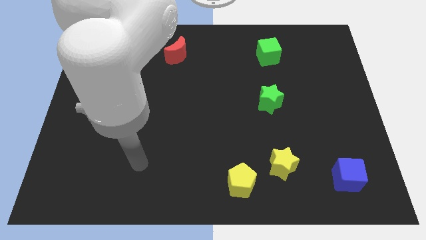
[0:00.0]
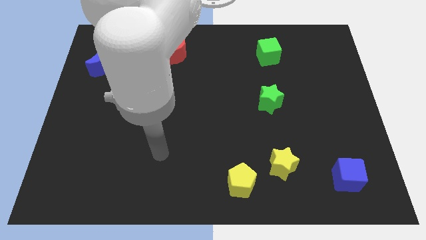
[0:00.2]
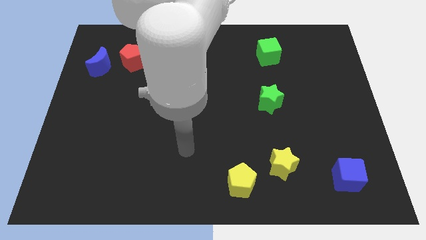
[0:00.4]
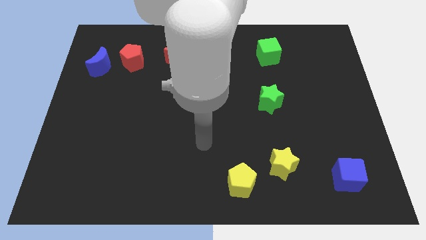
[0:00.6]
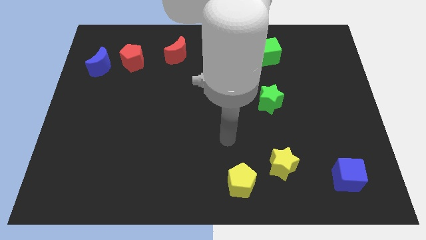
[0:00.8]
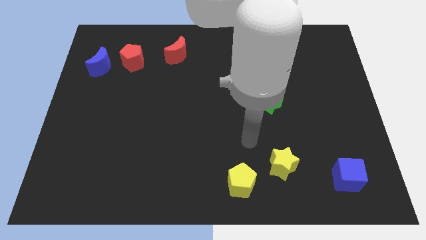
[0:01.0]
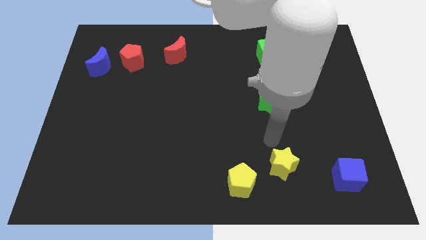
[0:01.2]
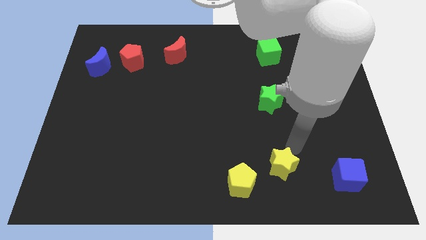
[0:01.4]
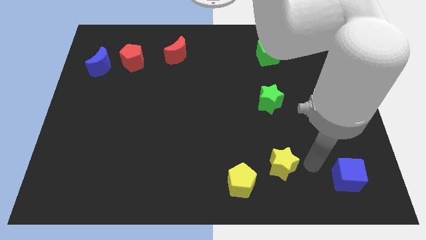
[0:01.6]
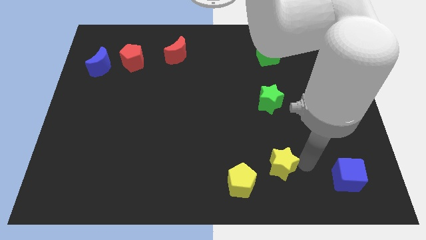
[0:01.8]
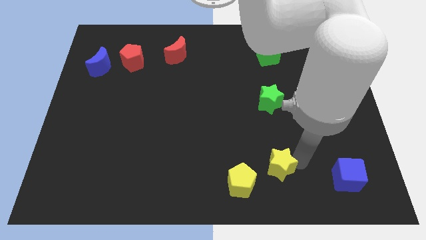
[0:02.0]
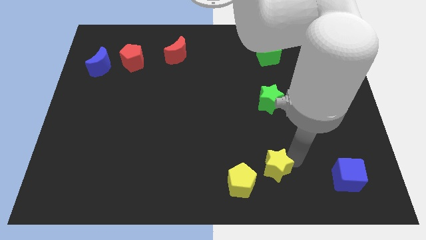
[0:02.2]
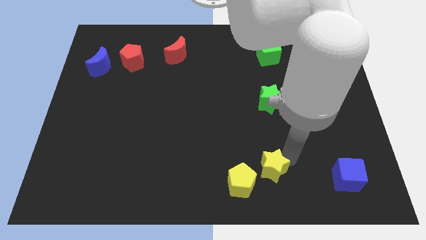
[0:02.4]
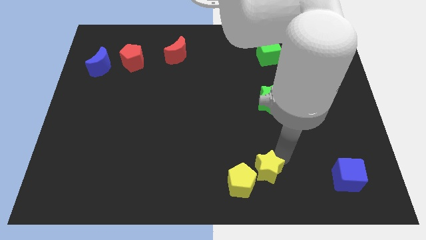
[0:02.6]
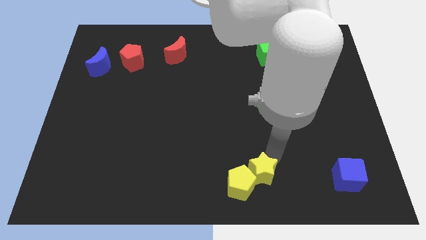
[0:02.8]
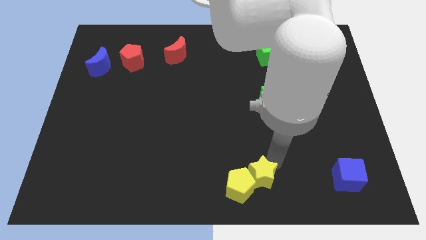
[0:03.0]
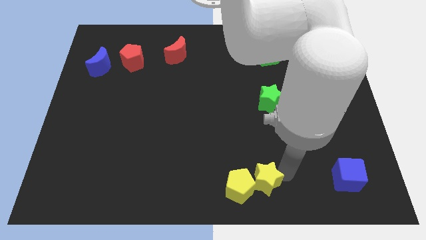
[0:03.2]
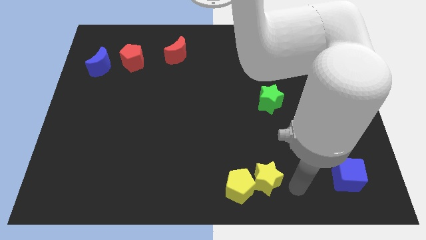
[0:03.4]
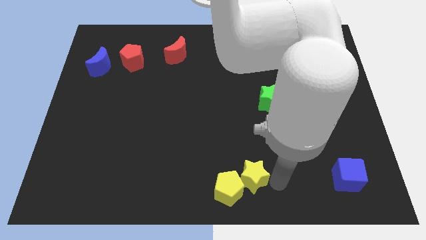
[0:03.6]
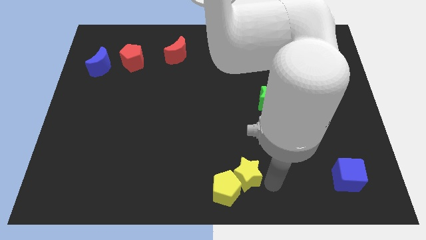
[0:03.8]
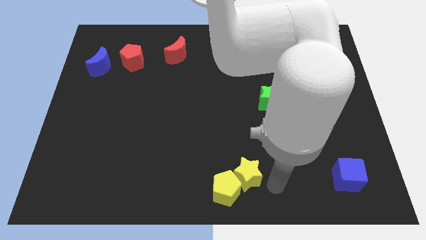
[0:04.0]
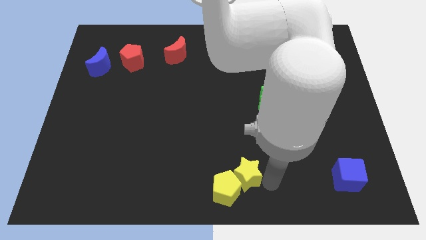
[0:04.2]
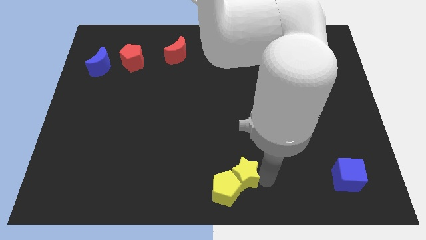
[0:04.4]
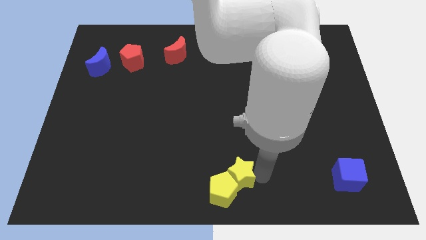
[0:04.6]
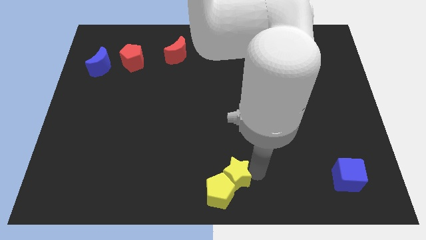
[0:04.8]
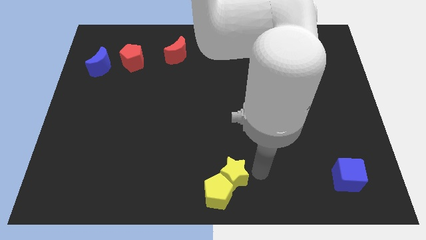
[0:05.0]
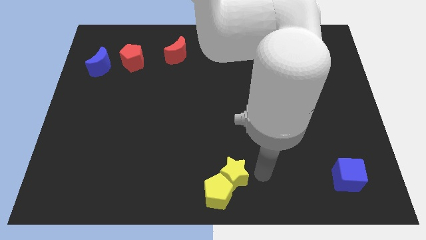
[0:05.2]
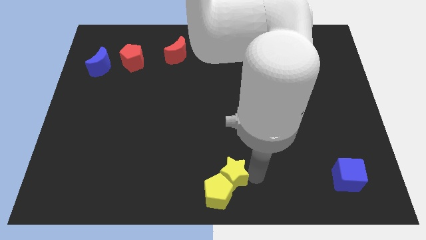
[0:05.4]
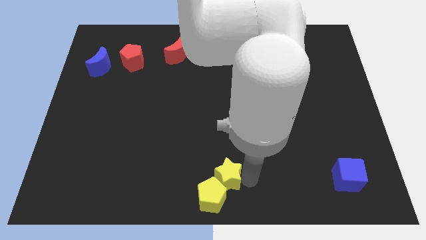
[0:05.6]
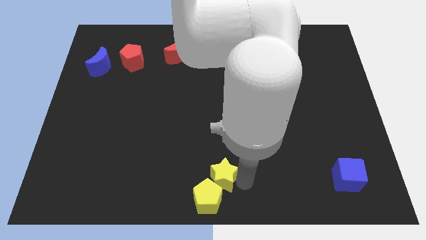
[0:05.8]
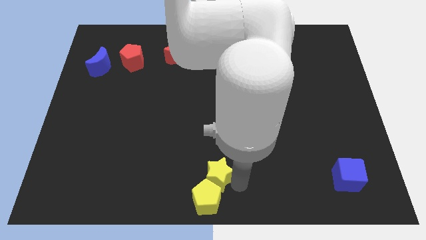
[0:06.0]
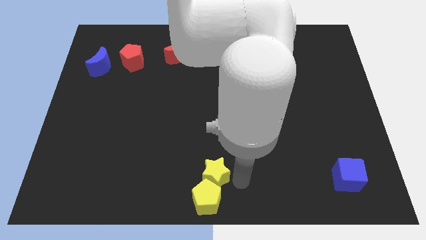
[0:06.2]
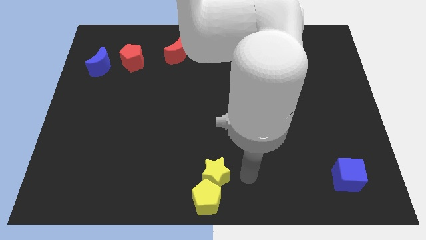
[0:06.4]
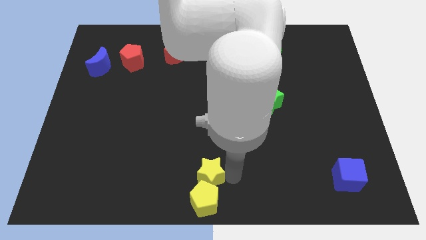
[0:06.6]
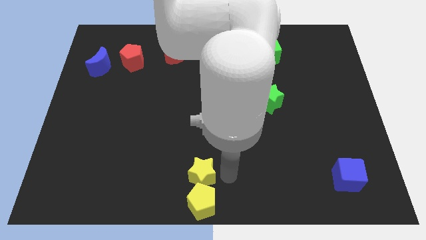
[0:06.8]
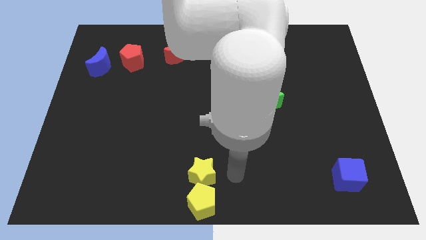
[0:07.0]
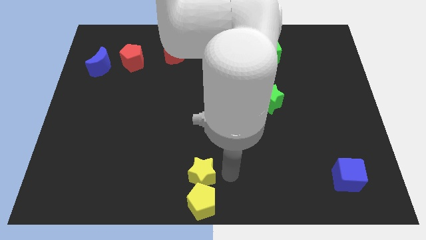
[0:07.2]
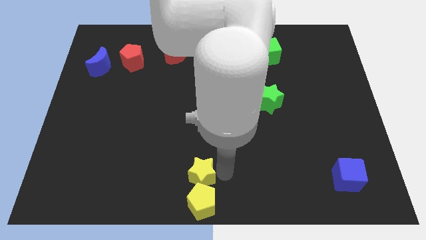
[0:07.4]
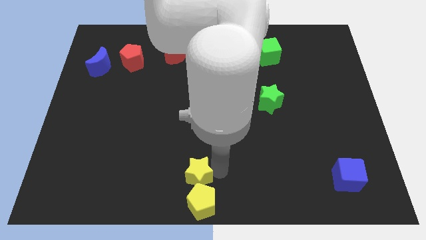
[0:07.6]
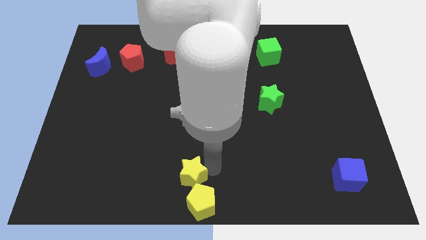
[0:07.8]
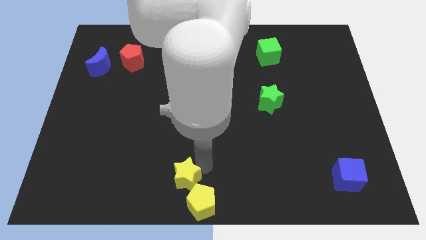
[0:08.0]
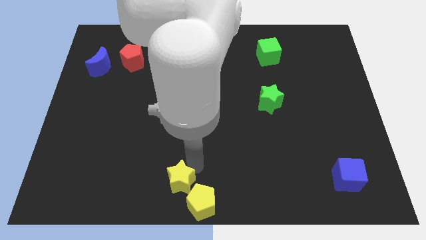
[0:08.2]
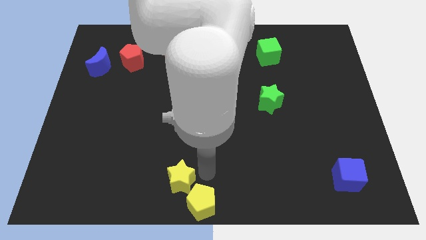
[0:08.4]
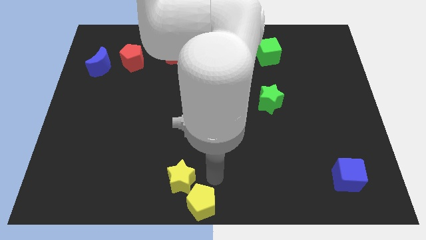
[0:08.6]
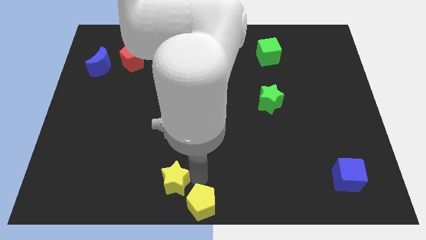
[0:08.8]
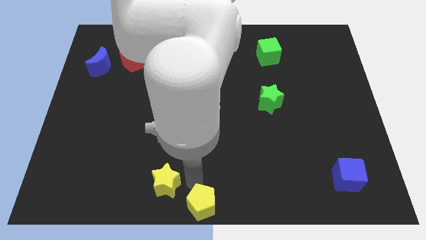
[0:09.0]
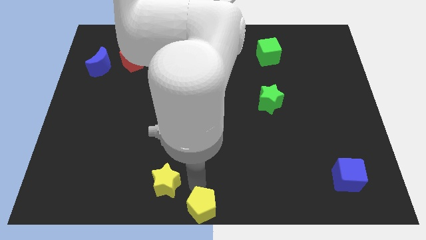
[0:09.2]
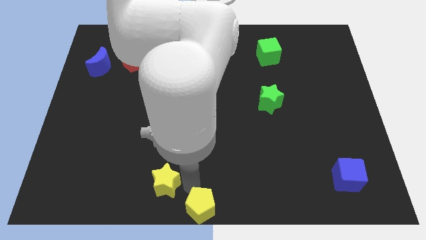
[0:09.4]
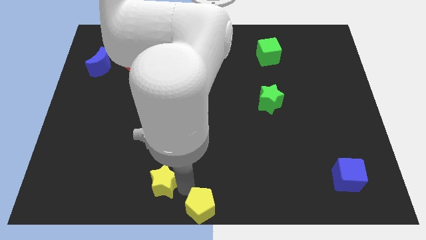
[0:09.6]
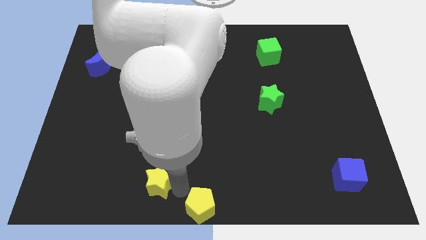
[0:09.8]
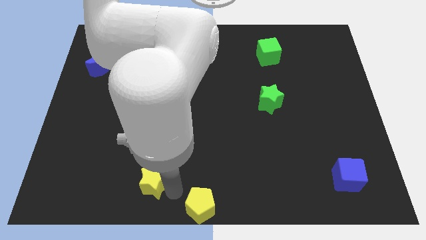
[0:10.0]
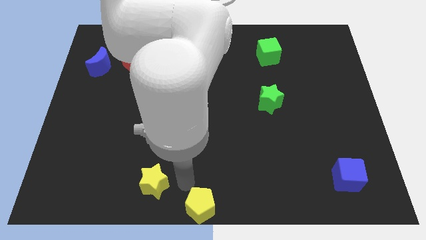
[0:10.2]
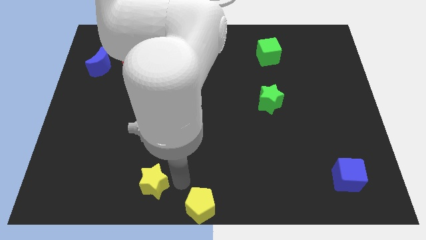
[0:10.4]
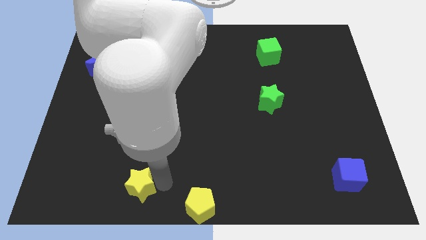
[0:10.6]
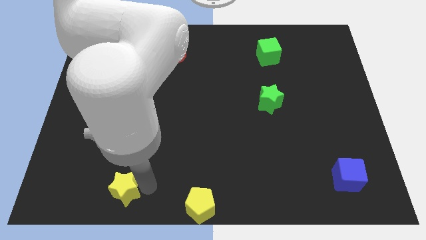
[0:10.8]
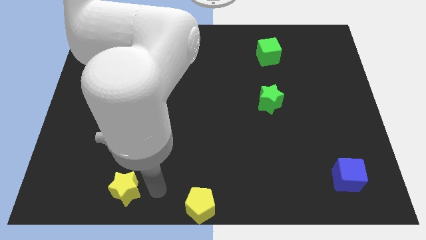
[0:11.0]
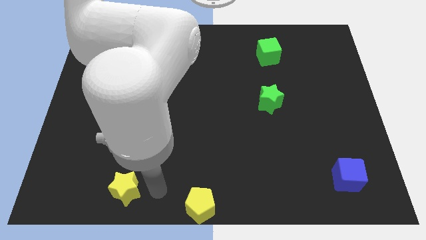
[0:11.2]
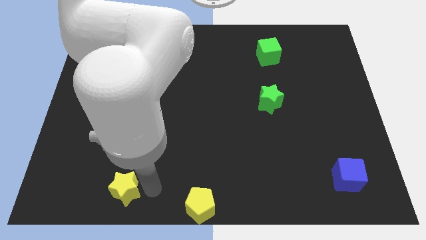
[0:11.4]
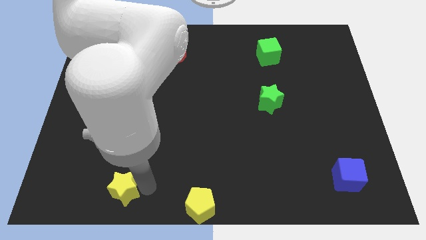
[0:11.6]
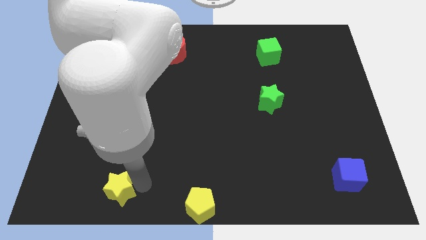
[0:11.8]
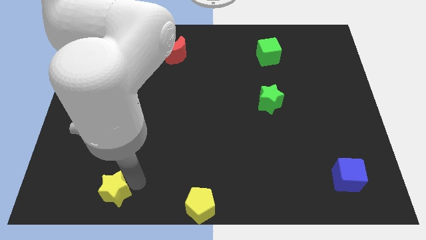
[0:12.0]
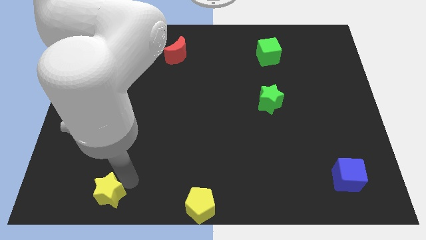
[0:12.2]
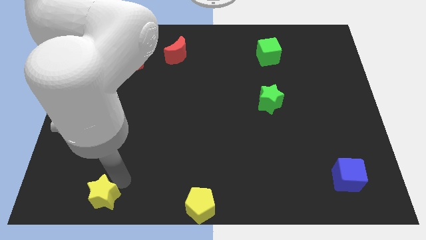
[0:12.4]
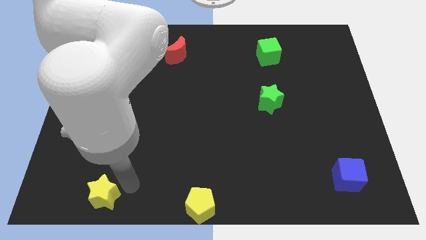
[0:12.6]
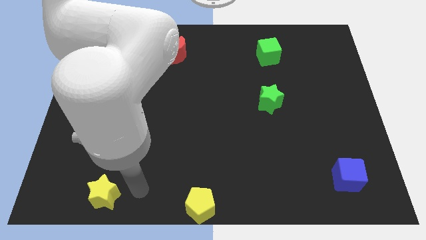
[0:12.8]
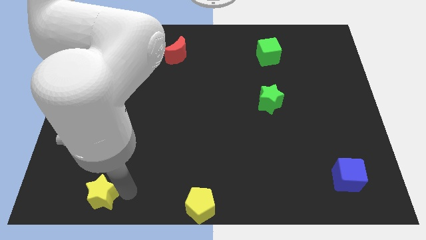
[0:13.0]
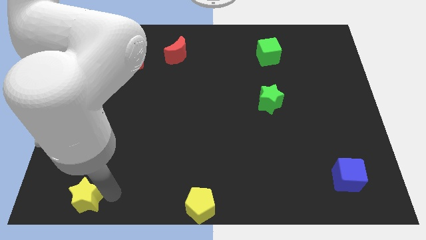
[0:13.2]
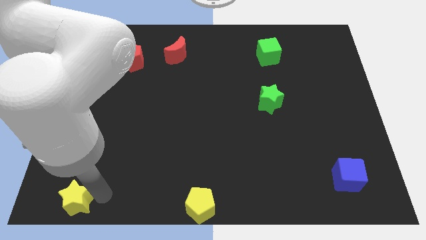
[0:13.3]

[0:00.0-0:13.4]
push the yellow star to the bottom left

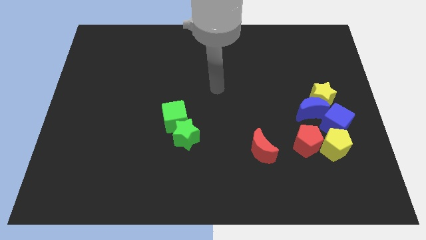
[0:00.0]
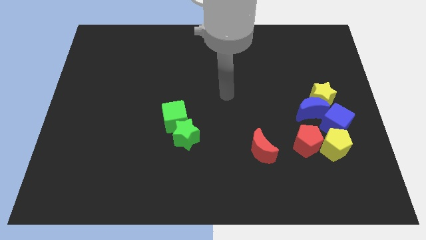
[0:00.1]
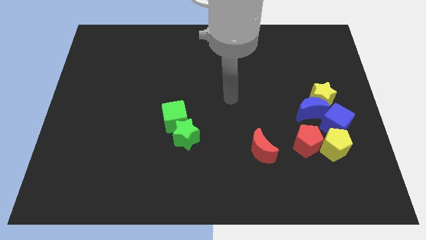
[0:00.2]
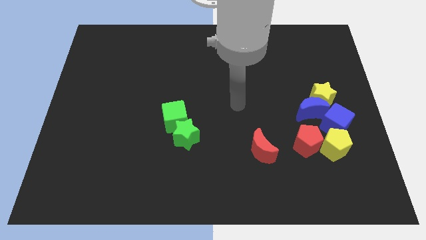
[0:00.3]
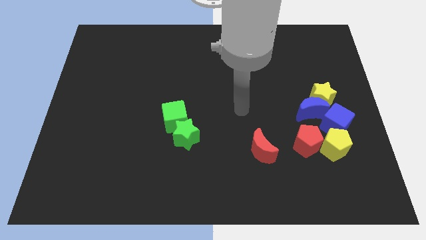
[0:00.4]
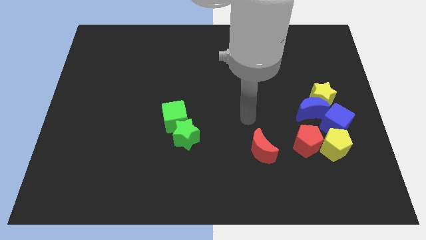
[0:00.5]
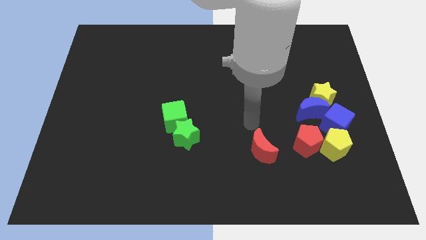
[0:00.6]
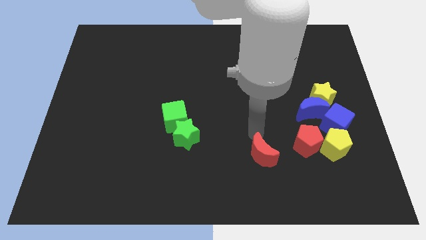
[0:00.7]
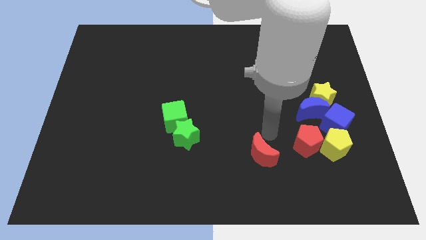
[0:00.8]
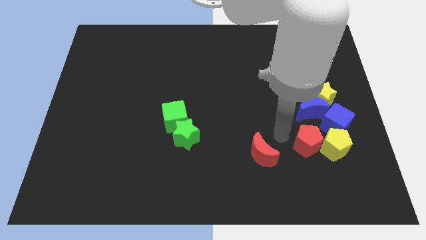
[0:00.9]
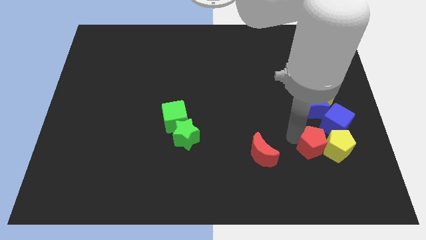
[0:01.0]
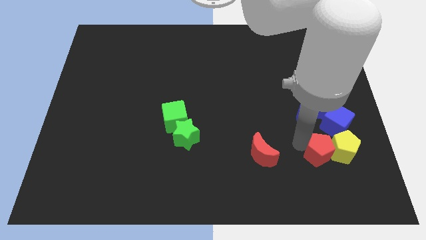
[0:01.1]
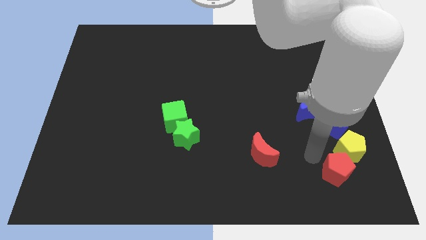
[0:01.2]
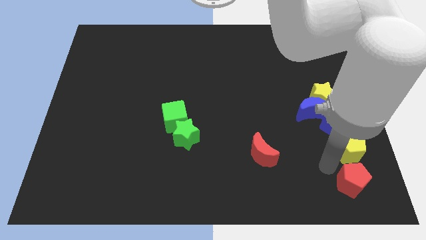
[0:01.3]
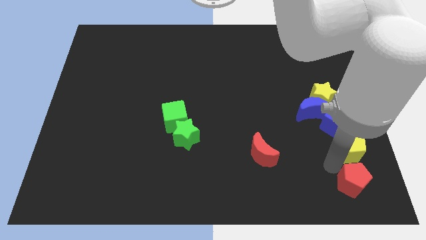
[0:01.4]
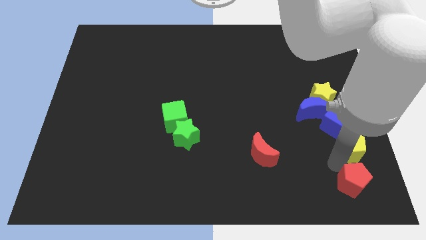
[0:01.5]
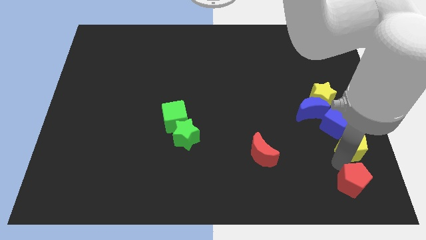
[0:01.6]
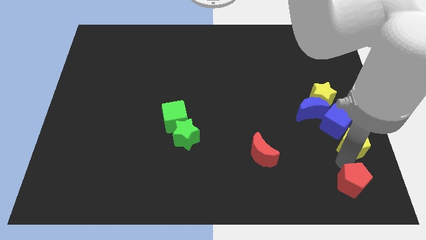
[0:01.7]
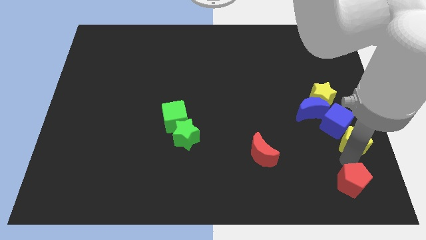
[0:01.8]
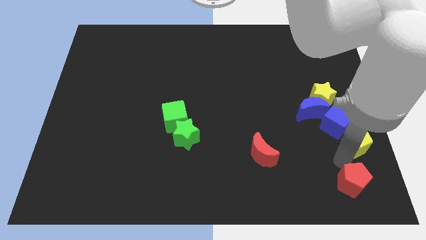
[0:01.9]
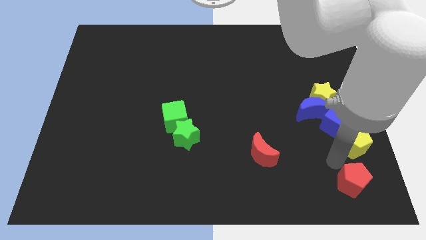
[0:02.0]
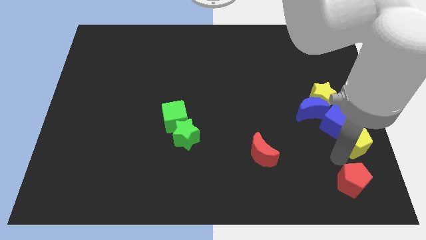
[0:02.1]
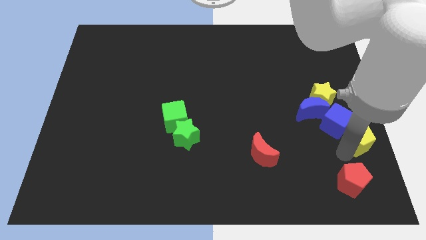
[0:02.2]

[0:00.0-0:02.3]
move the yellow pentagon to the right side of the board
